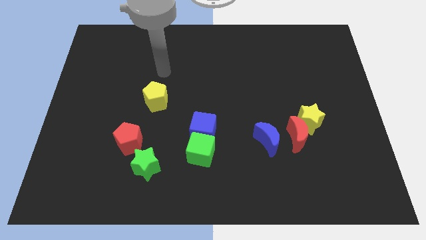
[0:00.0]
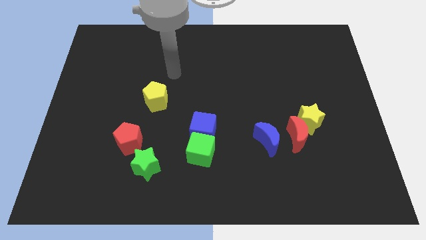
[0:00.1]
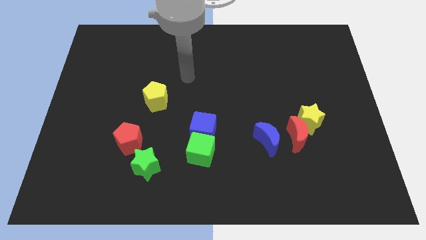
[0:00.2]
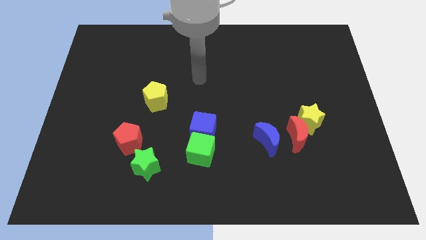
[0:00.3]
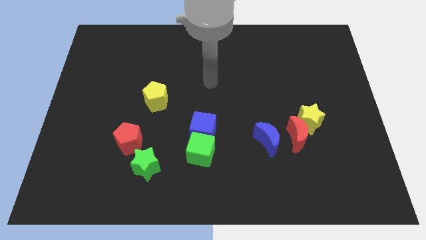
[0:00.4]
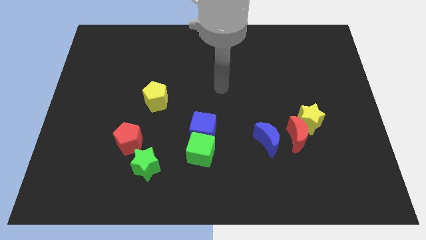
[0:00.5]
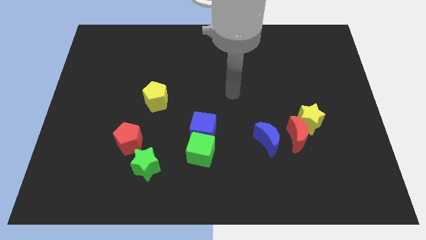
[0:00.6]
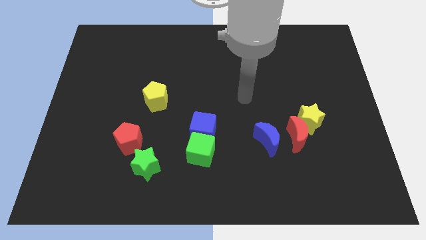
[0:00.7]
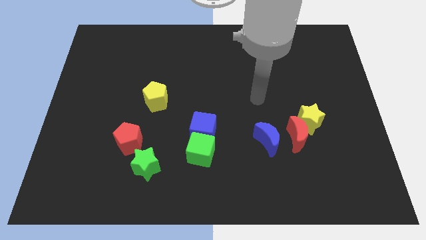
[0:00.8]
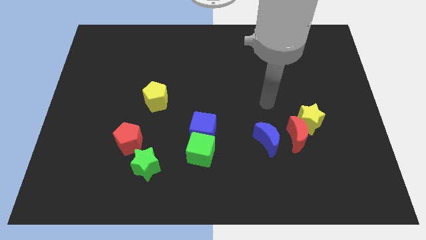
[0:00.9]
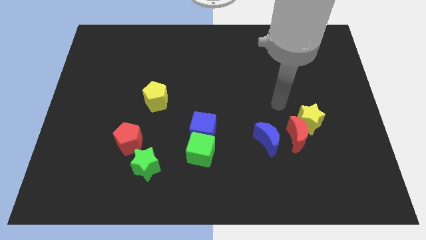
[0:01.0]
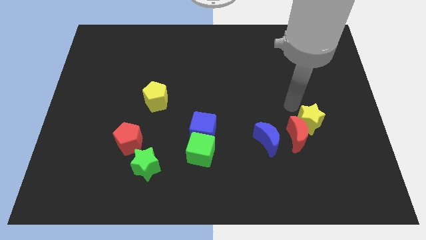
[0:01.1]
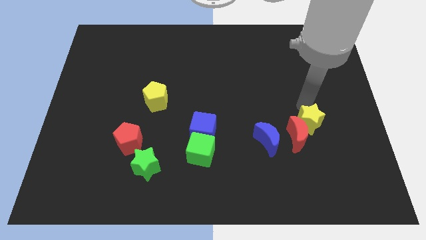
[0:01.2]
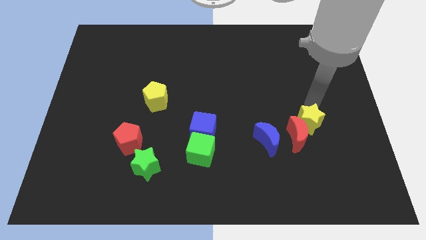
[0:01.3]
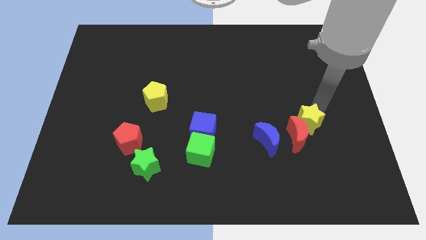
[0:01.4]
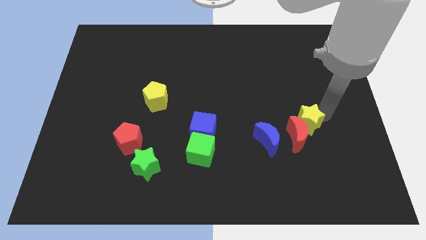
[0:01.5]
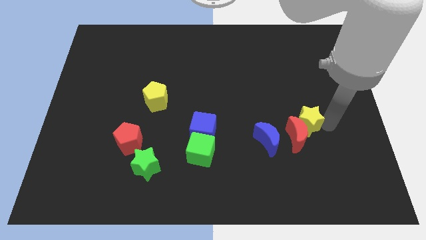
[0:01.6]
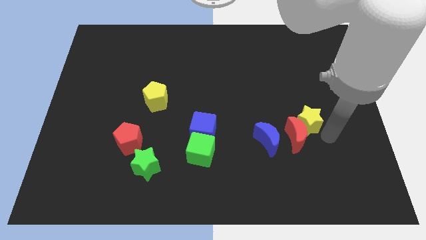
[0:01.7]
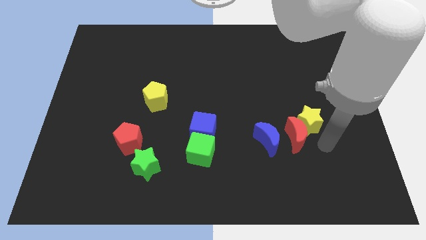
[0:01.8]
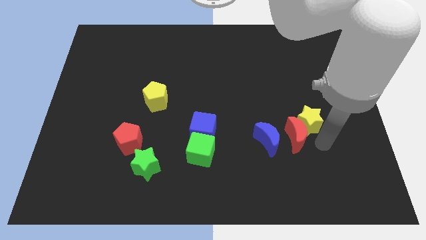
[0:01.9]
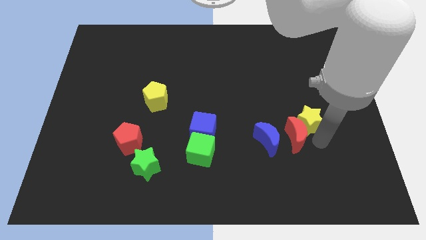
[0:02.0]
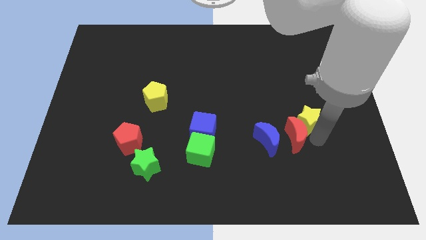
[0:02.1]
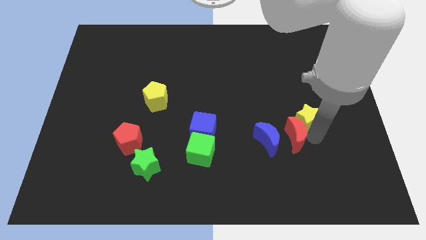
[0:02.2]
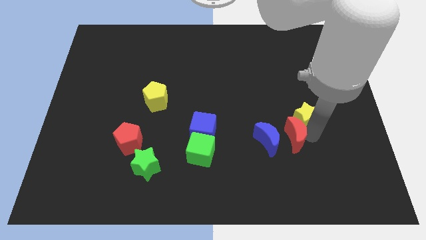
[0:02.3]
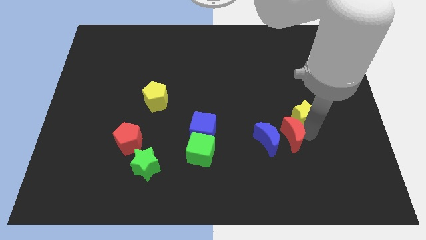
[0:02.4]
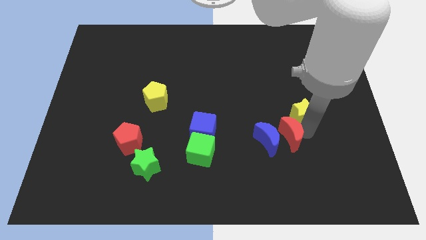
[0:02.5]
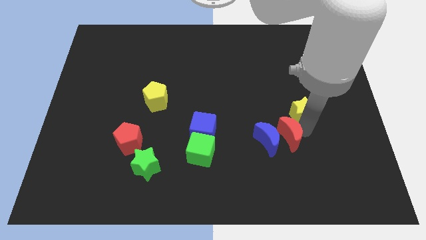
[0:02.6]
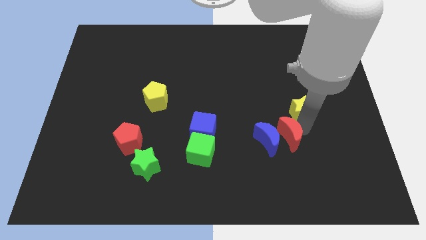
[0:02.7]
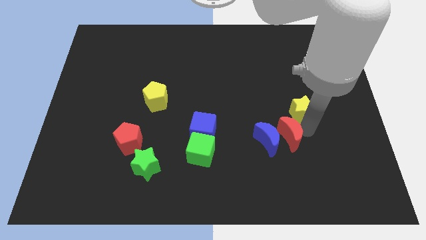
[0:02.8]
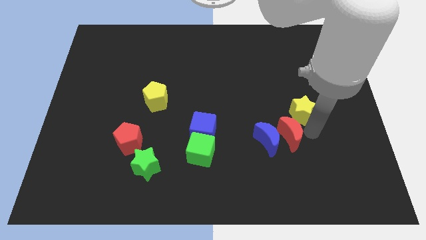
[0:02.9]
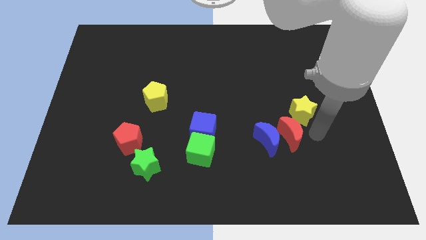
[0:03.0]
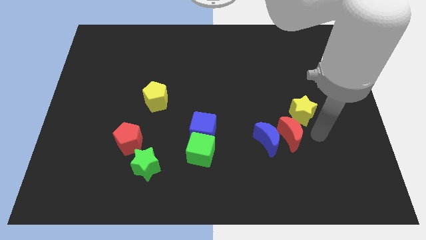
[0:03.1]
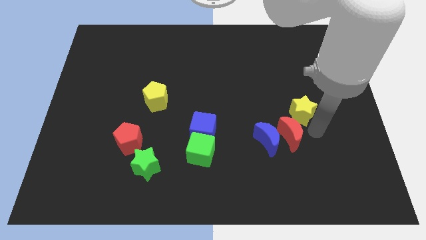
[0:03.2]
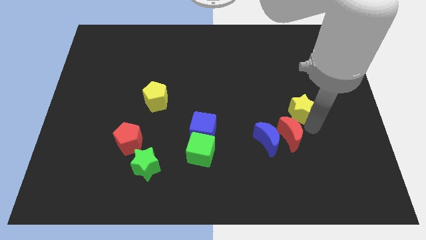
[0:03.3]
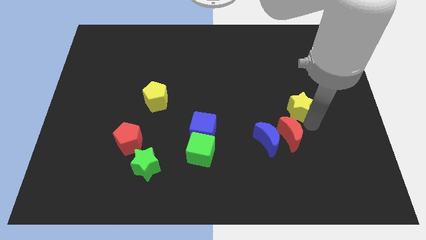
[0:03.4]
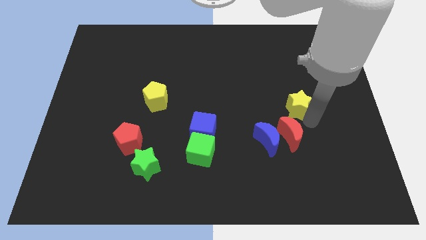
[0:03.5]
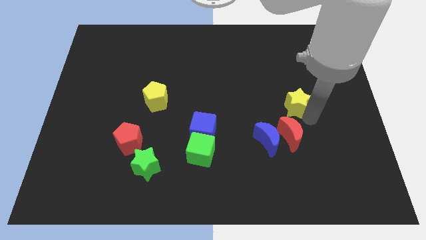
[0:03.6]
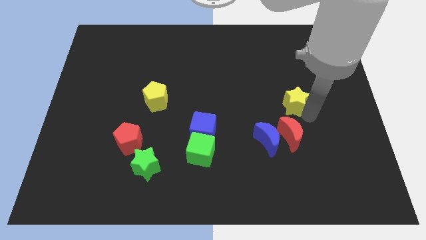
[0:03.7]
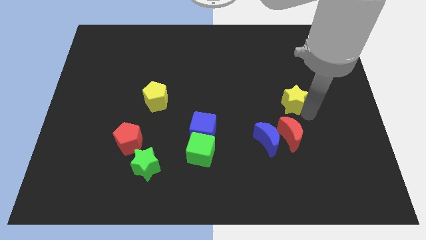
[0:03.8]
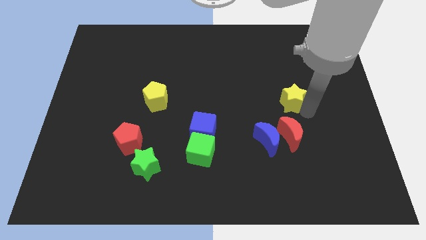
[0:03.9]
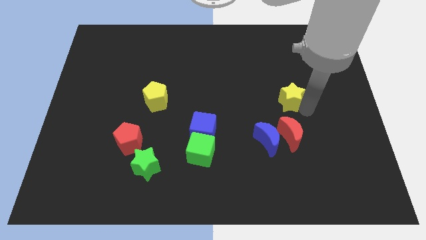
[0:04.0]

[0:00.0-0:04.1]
move the yellow star a little bit diagonally up and to the left

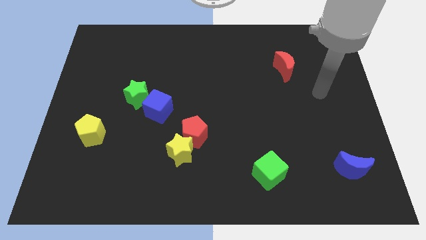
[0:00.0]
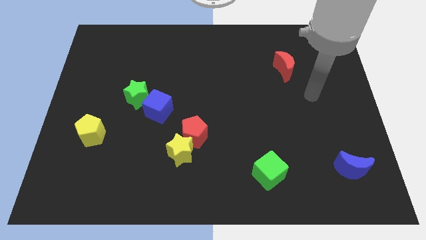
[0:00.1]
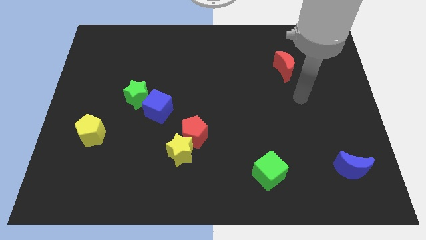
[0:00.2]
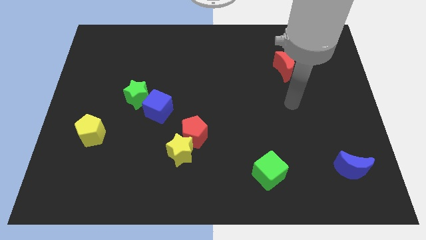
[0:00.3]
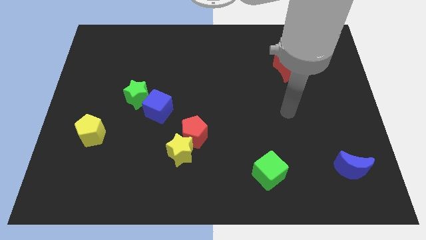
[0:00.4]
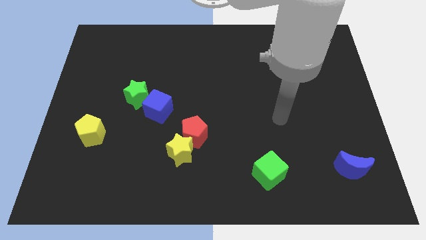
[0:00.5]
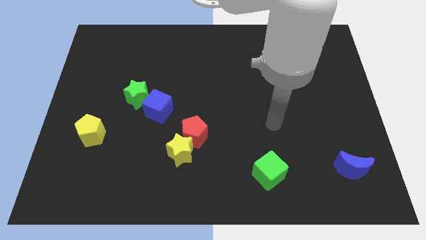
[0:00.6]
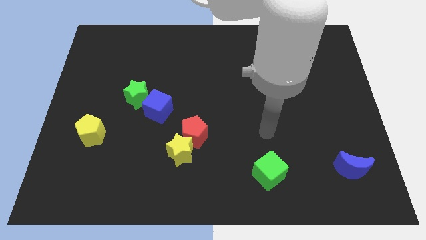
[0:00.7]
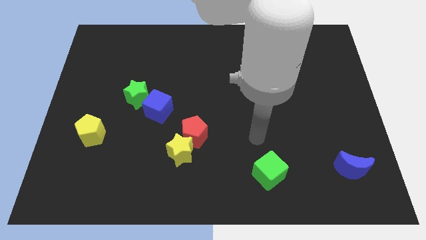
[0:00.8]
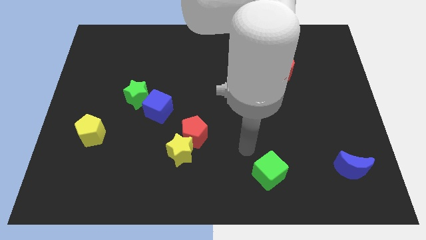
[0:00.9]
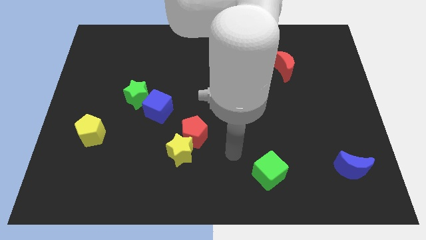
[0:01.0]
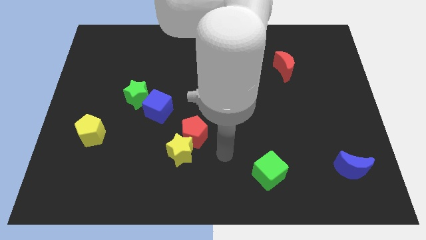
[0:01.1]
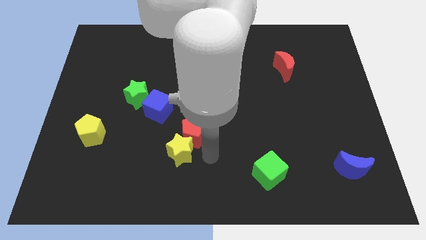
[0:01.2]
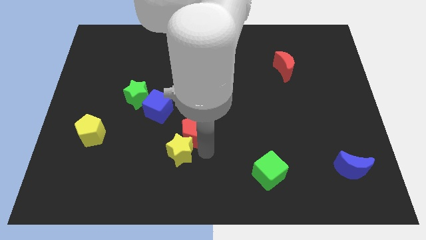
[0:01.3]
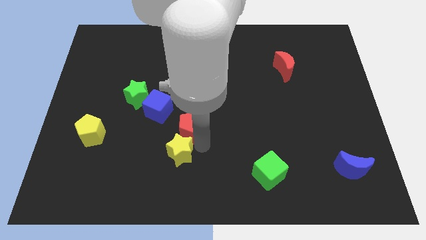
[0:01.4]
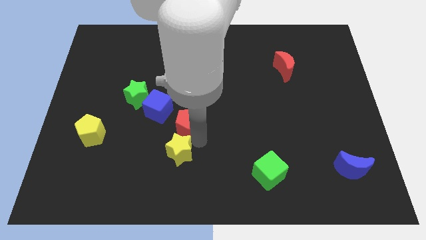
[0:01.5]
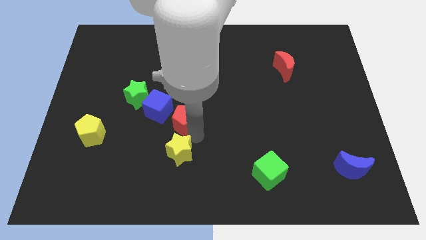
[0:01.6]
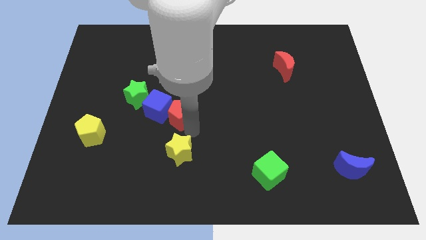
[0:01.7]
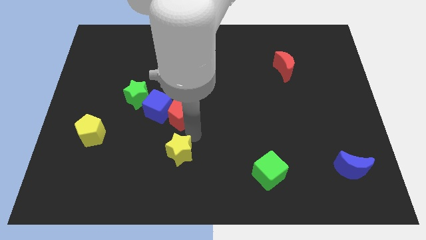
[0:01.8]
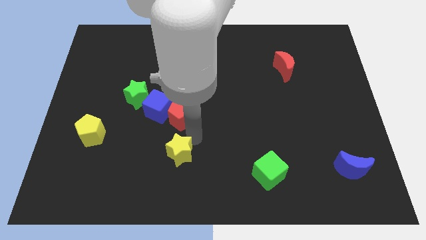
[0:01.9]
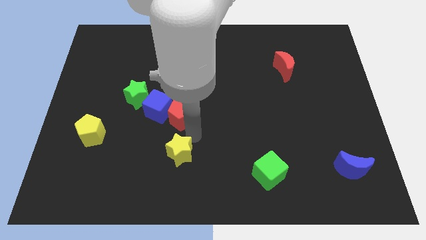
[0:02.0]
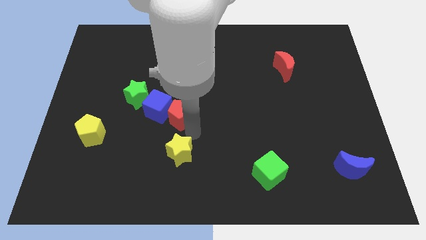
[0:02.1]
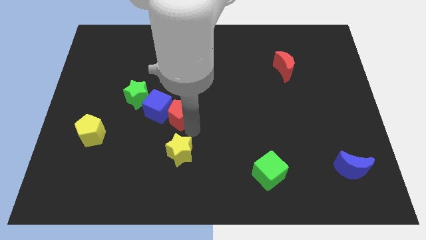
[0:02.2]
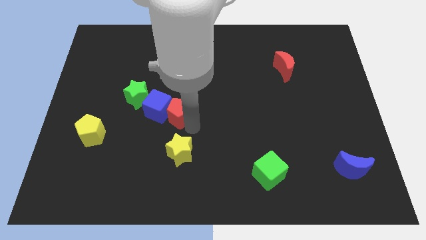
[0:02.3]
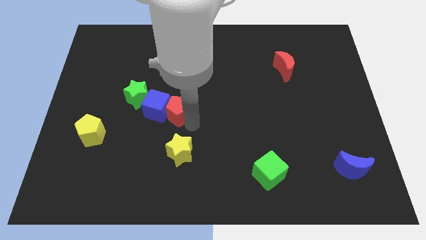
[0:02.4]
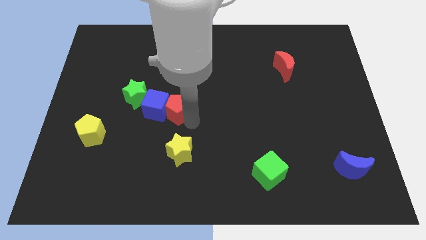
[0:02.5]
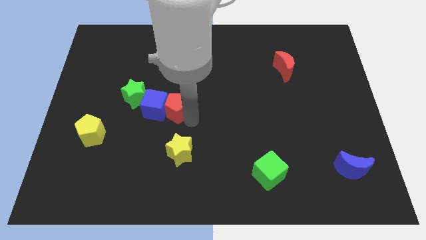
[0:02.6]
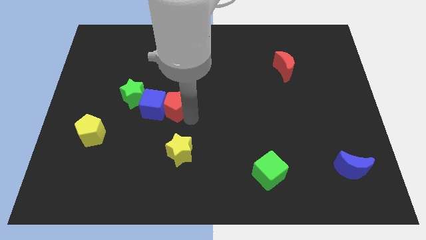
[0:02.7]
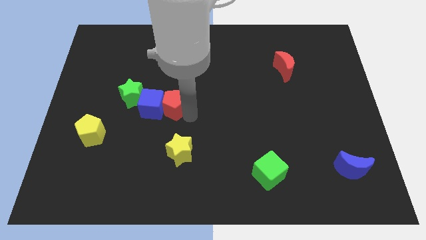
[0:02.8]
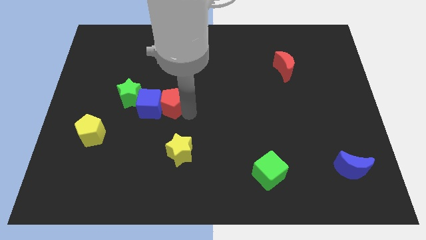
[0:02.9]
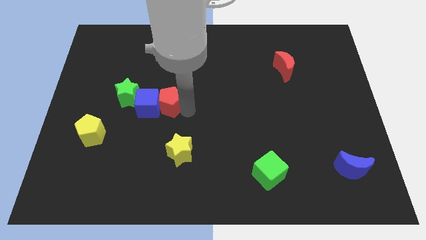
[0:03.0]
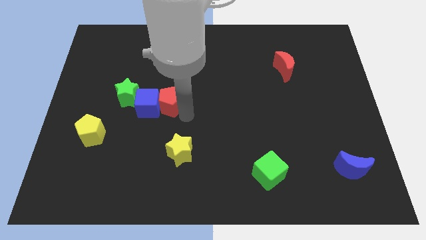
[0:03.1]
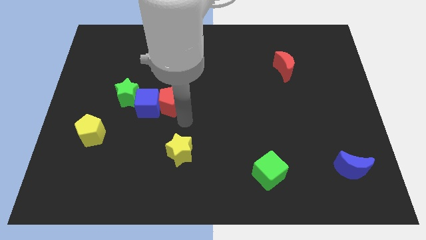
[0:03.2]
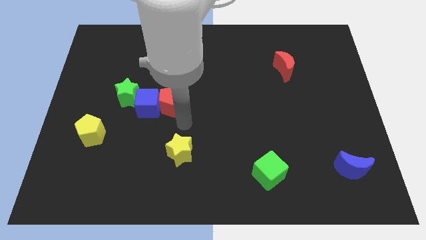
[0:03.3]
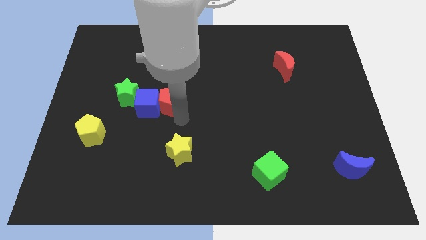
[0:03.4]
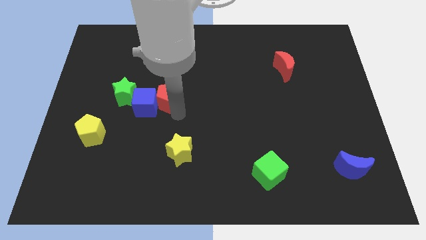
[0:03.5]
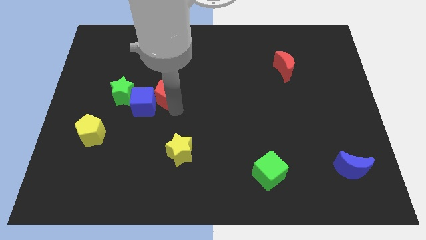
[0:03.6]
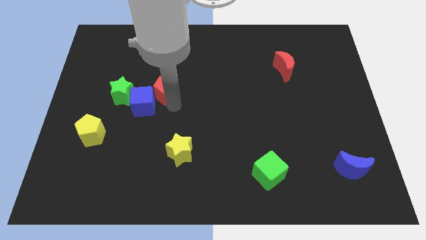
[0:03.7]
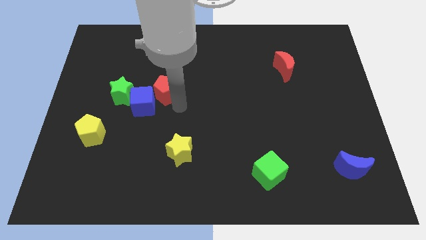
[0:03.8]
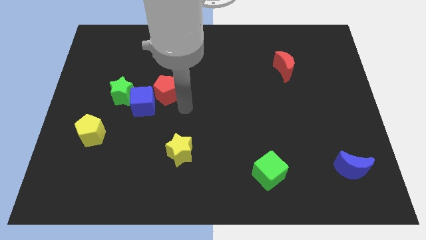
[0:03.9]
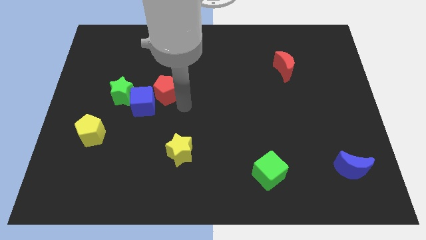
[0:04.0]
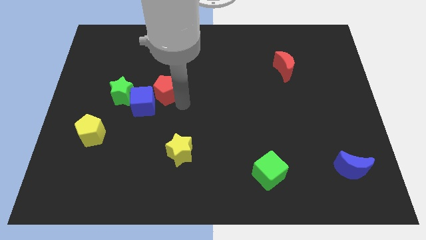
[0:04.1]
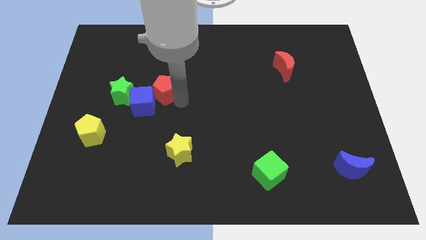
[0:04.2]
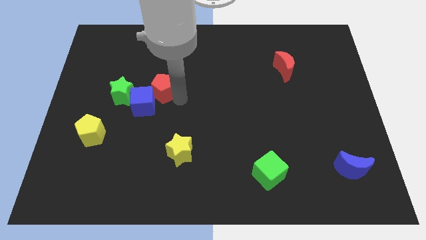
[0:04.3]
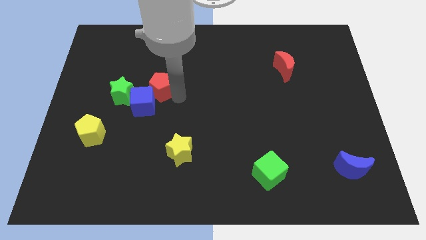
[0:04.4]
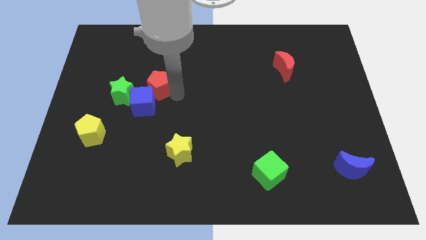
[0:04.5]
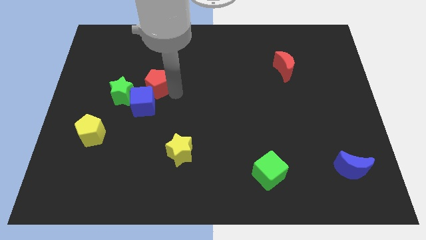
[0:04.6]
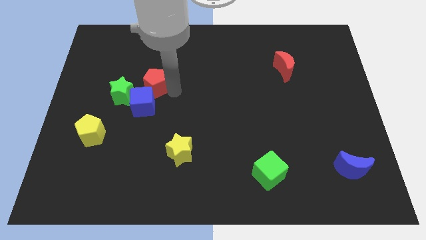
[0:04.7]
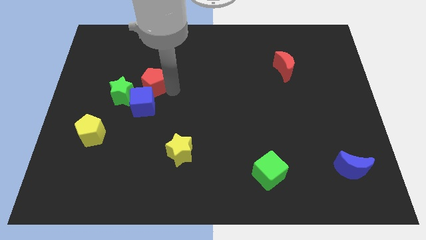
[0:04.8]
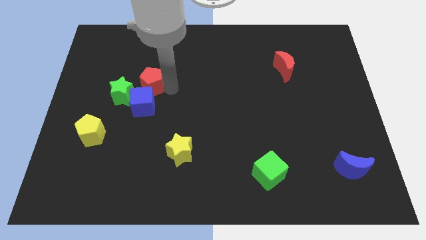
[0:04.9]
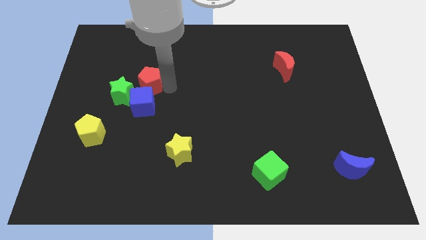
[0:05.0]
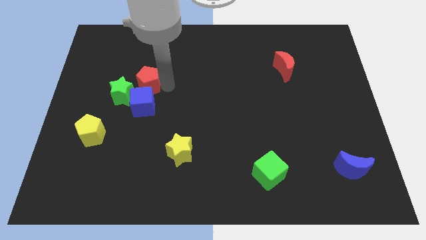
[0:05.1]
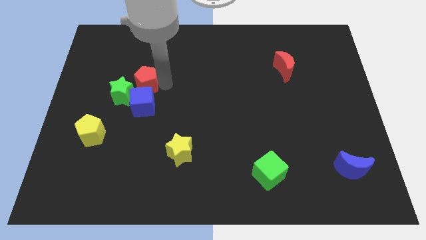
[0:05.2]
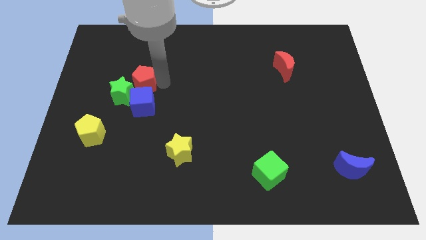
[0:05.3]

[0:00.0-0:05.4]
move the red pentagon diagonally up and left
